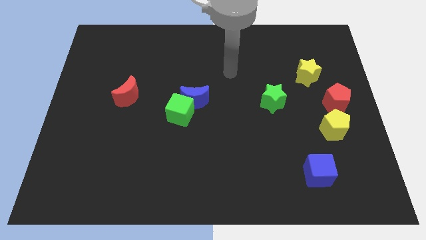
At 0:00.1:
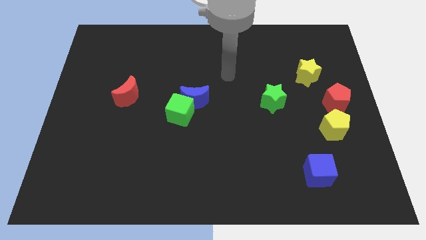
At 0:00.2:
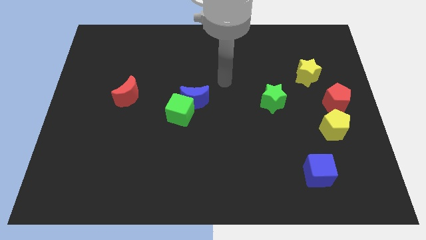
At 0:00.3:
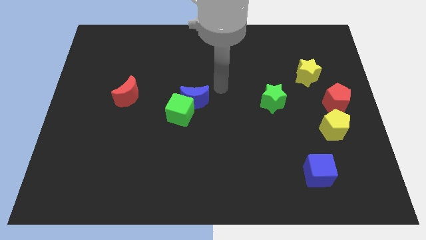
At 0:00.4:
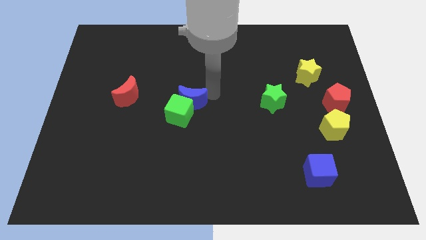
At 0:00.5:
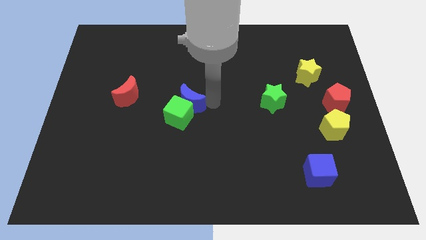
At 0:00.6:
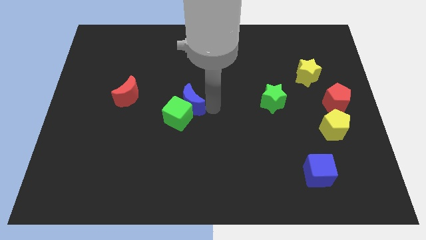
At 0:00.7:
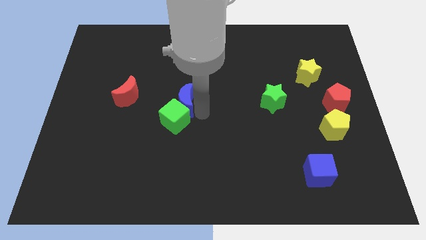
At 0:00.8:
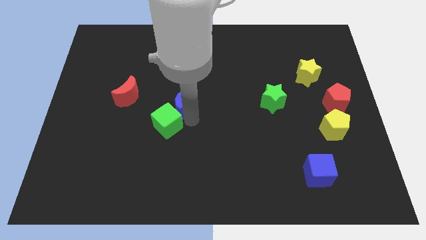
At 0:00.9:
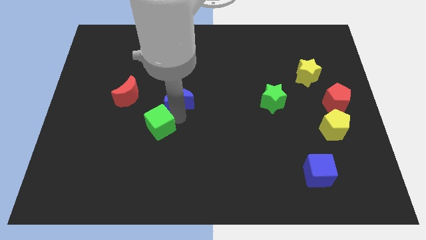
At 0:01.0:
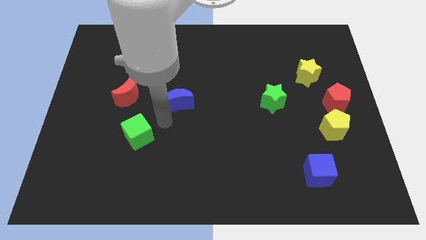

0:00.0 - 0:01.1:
pull the blue moon apart from the green cube

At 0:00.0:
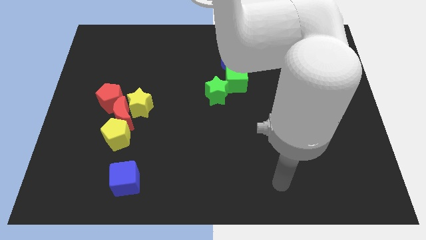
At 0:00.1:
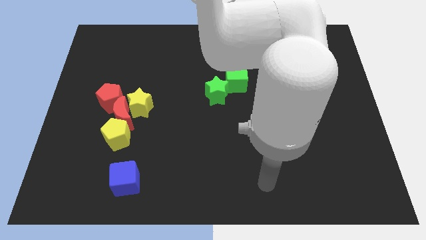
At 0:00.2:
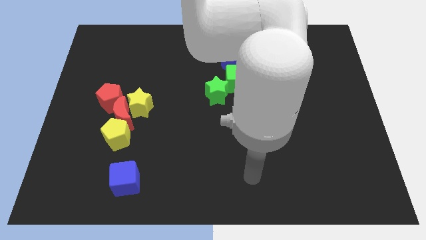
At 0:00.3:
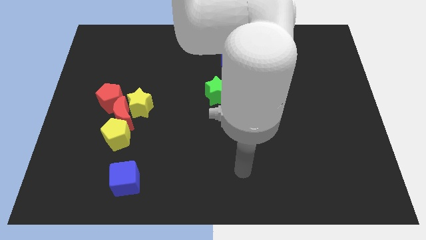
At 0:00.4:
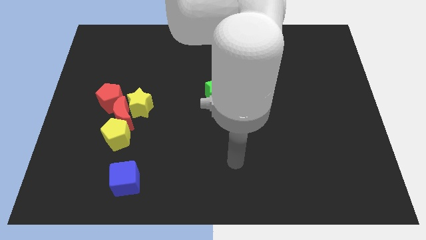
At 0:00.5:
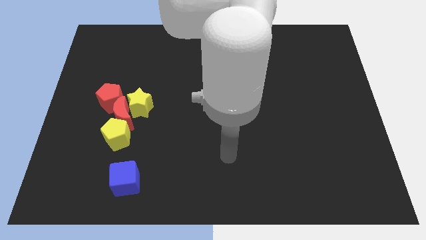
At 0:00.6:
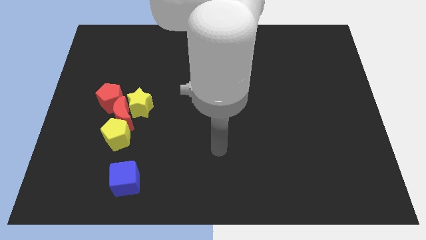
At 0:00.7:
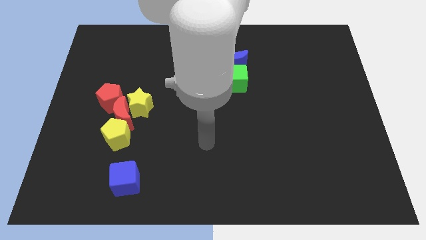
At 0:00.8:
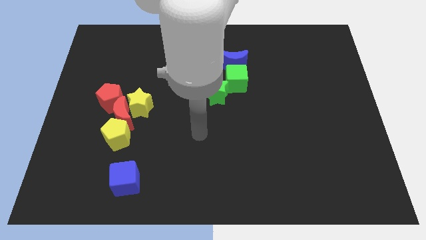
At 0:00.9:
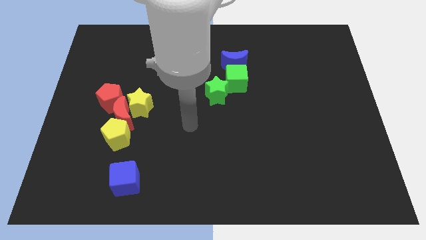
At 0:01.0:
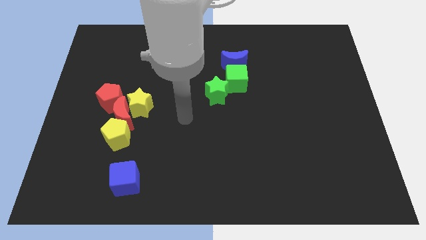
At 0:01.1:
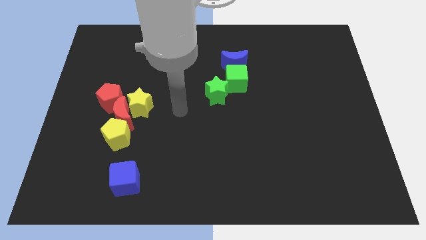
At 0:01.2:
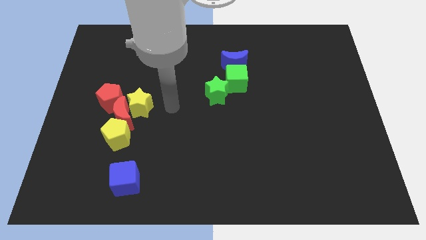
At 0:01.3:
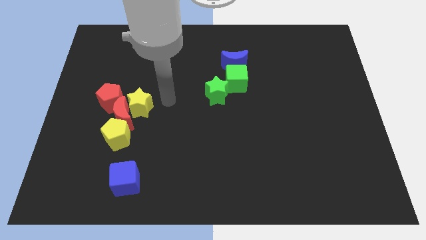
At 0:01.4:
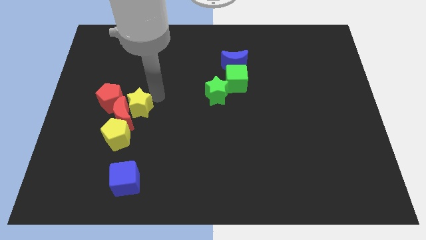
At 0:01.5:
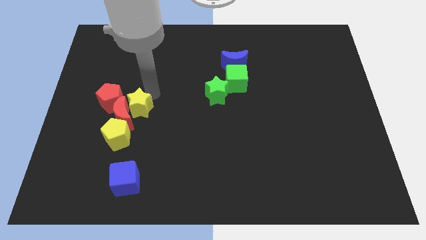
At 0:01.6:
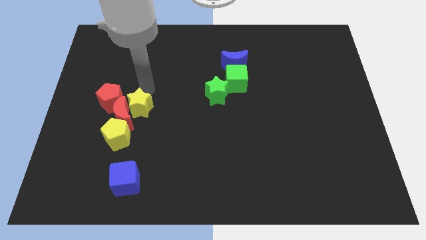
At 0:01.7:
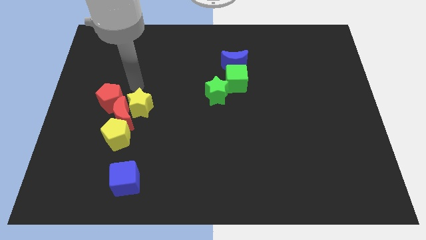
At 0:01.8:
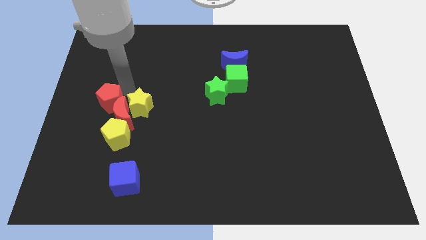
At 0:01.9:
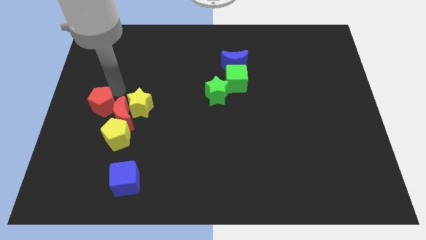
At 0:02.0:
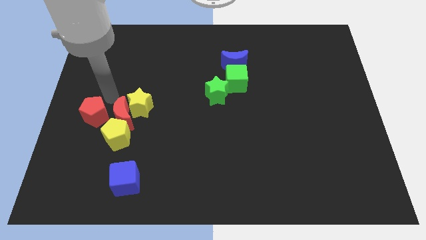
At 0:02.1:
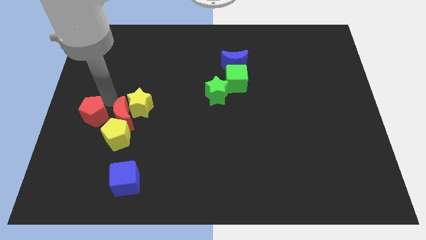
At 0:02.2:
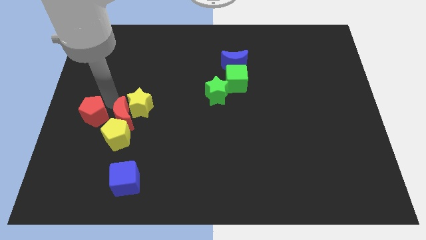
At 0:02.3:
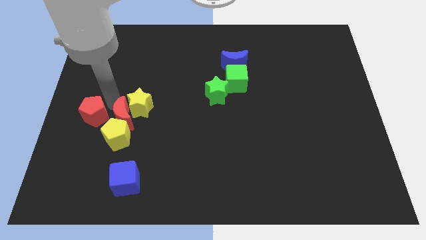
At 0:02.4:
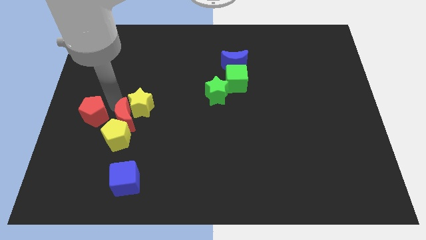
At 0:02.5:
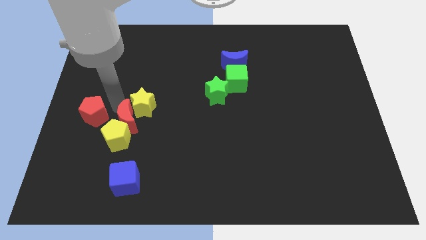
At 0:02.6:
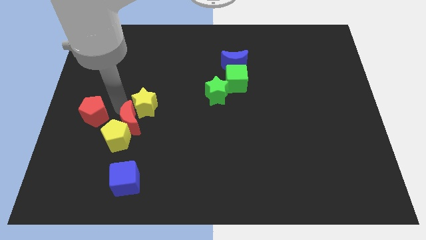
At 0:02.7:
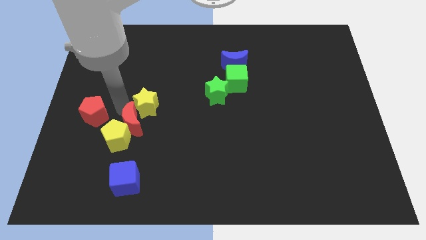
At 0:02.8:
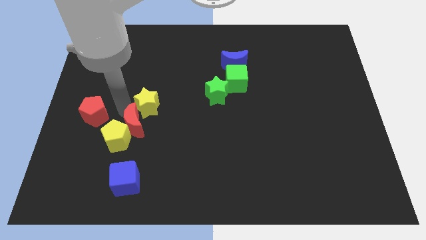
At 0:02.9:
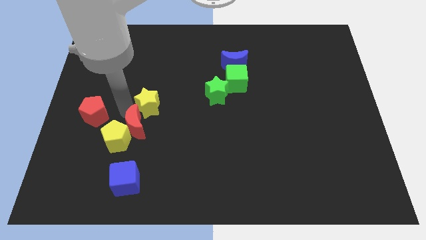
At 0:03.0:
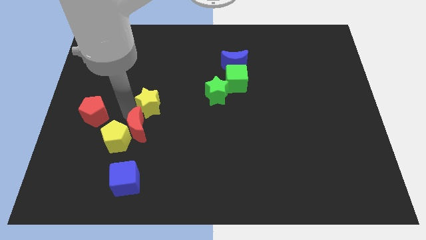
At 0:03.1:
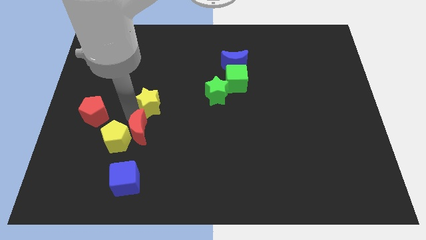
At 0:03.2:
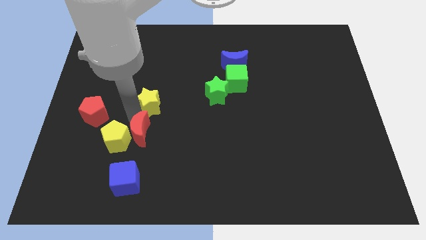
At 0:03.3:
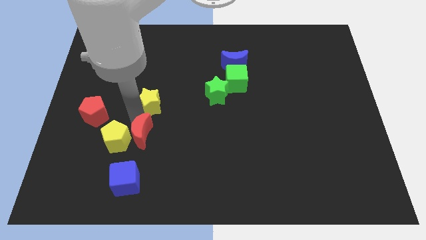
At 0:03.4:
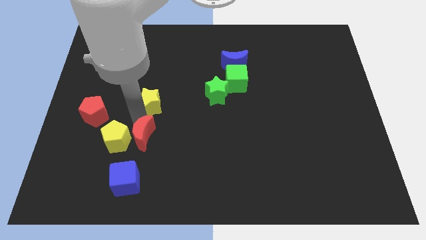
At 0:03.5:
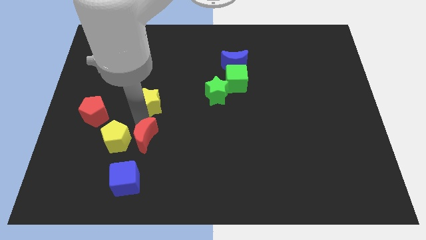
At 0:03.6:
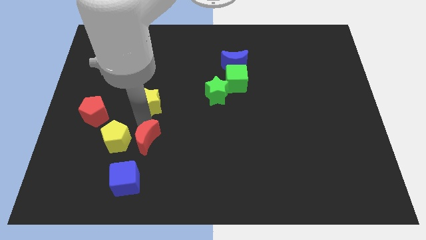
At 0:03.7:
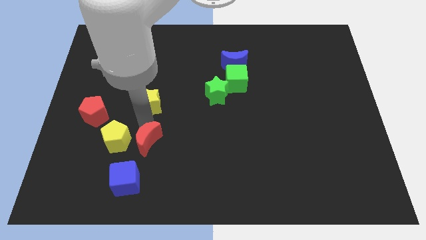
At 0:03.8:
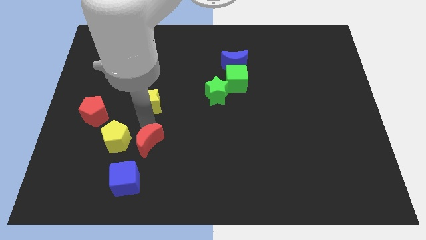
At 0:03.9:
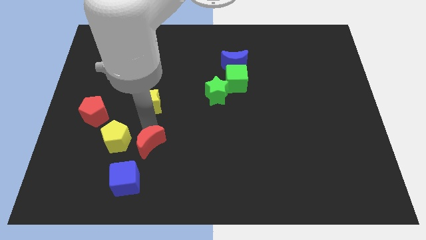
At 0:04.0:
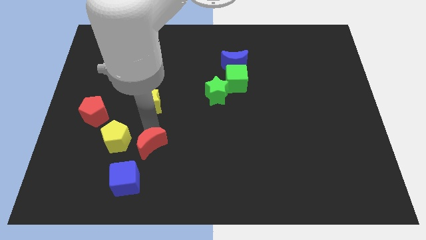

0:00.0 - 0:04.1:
pull the red moon apart from the yellow star, yellow pentagon, and red pentagon

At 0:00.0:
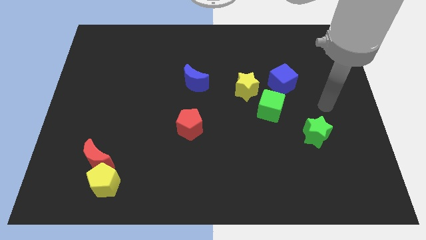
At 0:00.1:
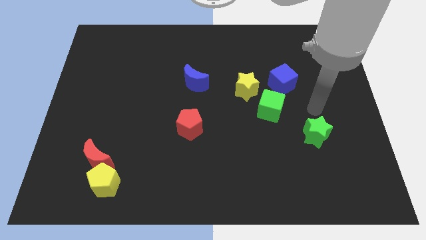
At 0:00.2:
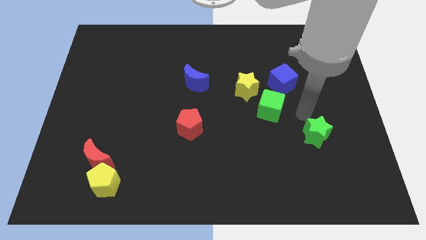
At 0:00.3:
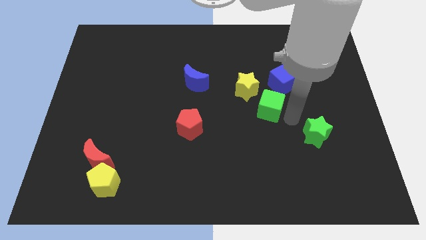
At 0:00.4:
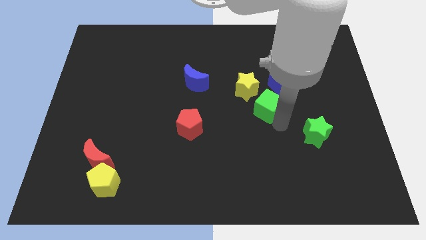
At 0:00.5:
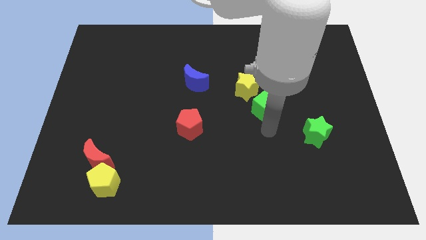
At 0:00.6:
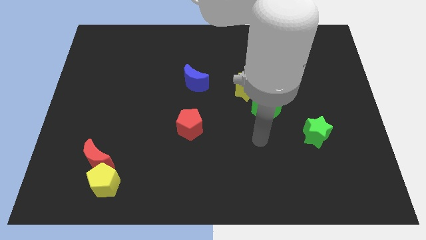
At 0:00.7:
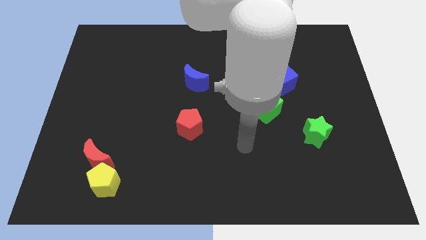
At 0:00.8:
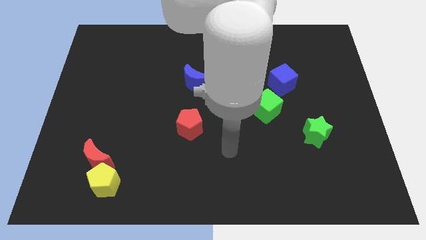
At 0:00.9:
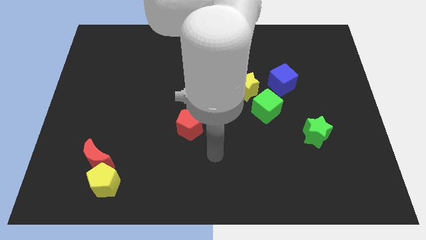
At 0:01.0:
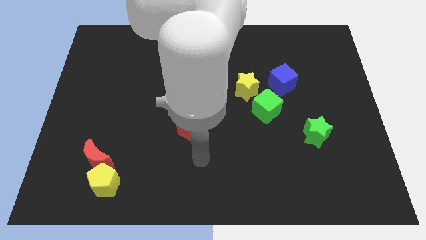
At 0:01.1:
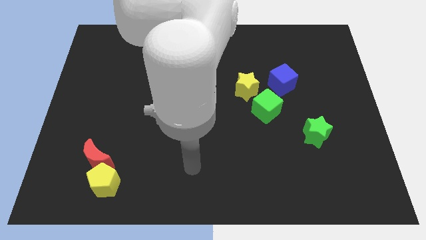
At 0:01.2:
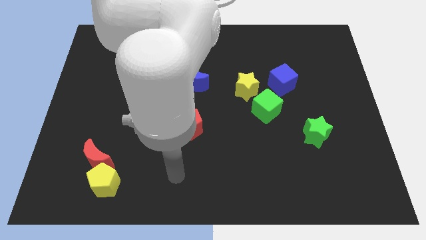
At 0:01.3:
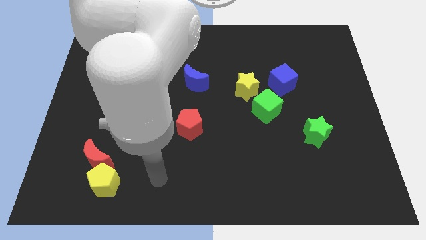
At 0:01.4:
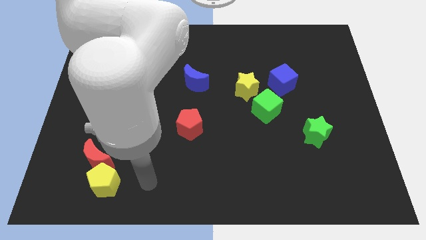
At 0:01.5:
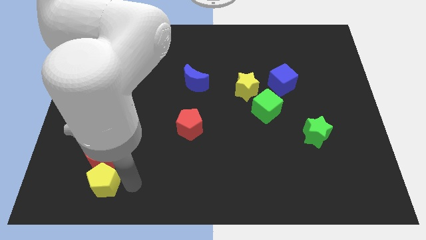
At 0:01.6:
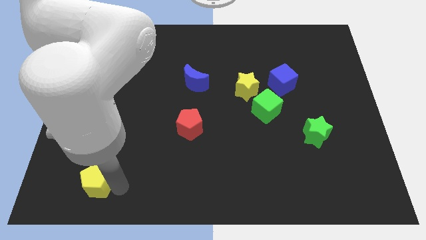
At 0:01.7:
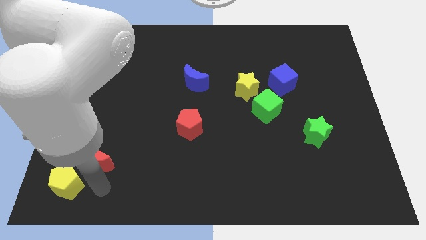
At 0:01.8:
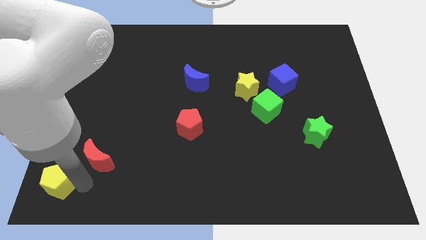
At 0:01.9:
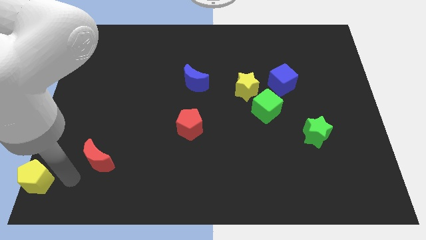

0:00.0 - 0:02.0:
separate the red moon from the yellow pentagon

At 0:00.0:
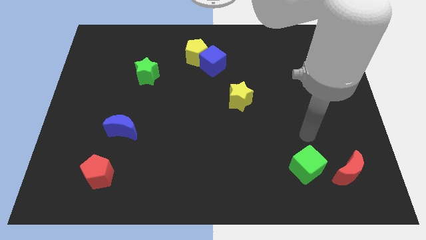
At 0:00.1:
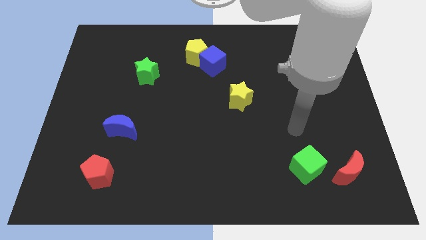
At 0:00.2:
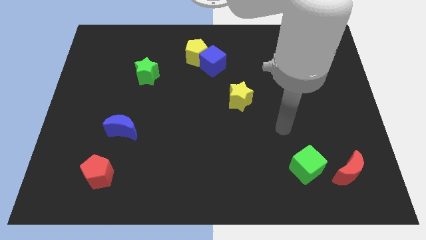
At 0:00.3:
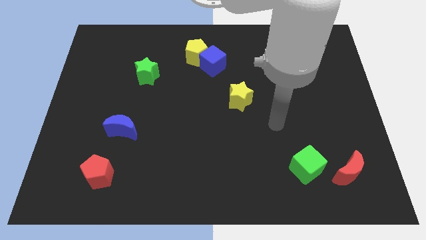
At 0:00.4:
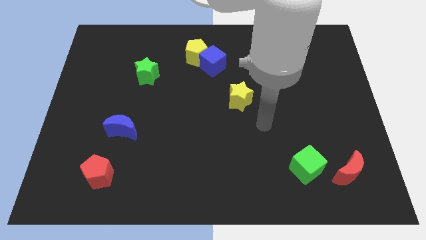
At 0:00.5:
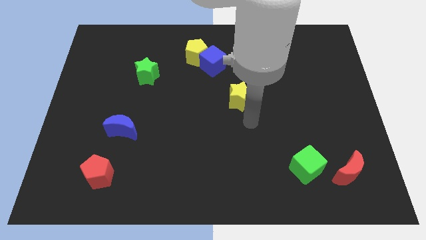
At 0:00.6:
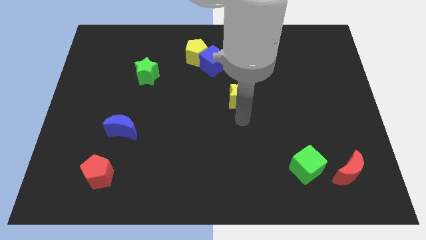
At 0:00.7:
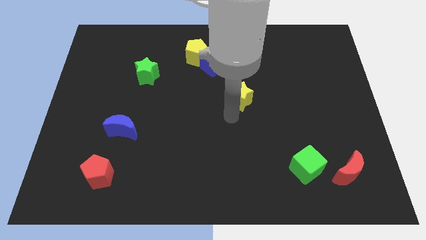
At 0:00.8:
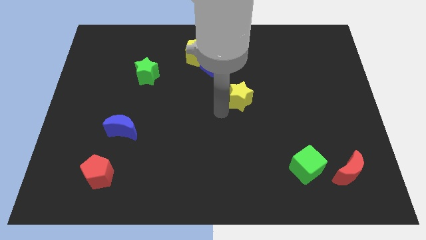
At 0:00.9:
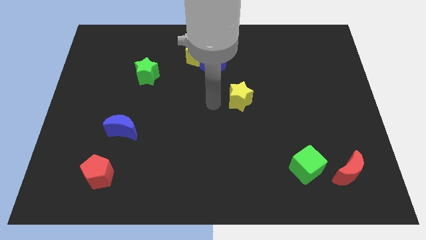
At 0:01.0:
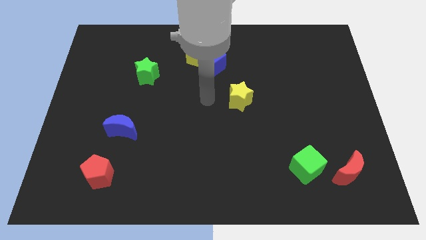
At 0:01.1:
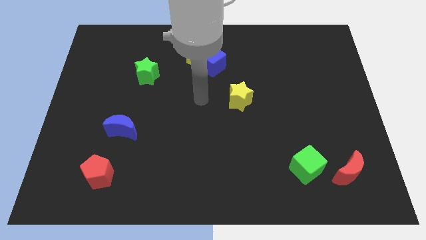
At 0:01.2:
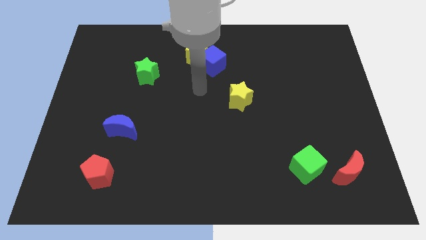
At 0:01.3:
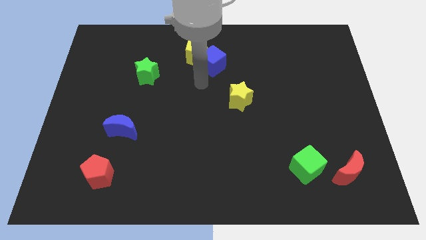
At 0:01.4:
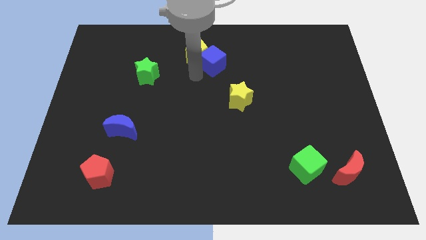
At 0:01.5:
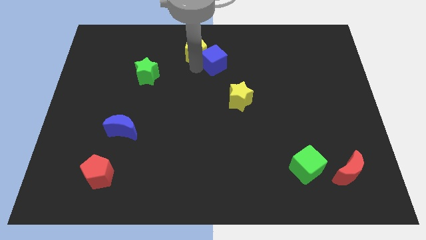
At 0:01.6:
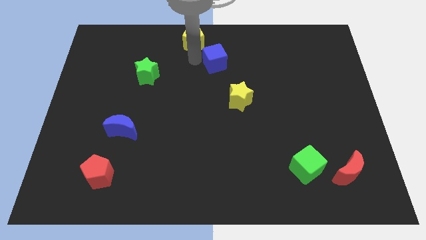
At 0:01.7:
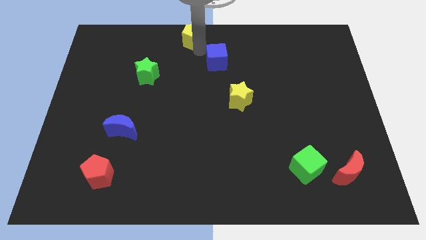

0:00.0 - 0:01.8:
pull the blue cube apart from the yellow pentagon

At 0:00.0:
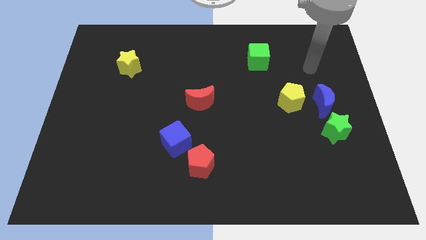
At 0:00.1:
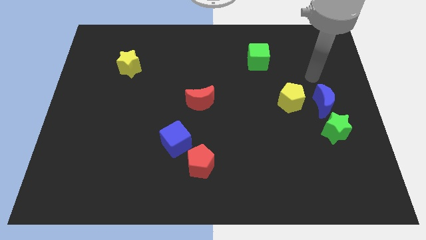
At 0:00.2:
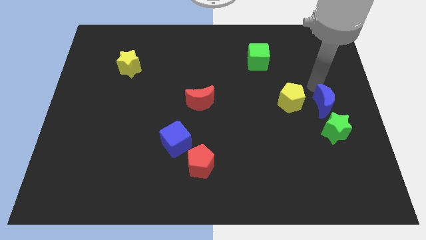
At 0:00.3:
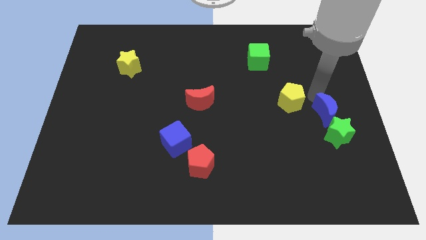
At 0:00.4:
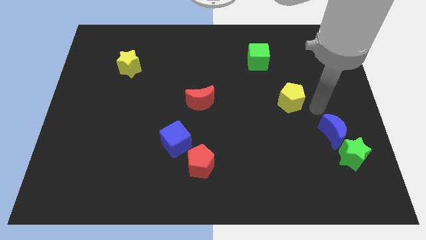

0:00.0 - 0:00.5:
move the yellow pentagon away from the blue moon

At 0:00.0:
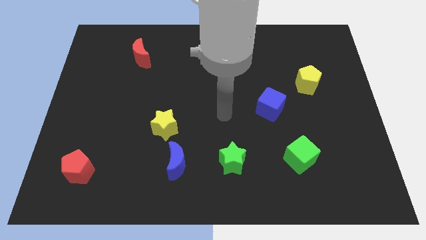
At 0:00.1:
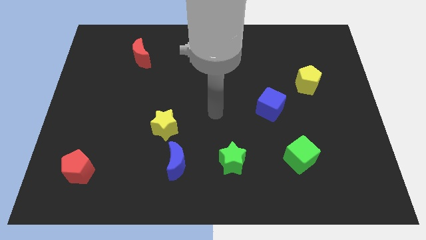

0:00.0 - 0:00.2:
separate the blue moon from the yellow star
